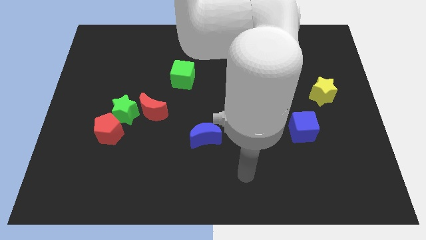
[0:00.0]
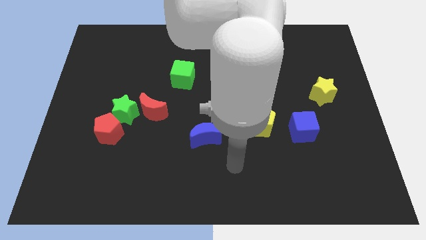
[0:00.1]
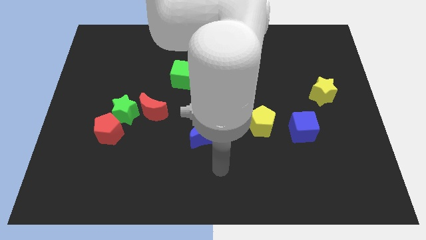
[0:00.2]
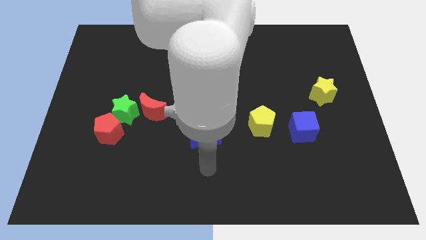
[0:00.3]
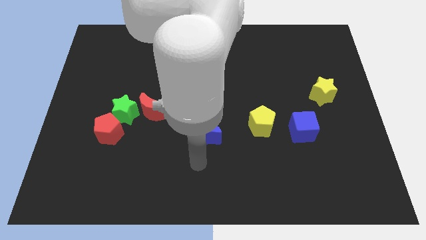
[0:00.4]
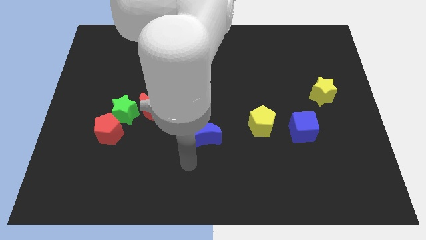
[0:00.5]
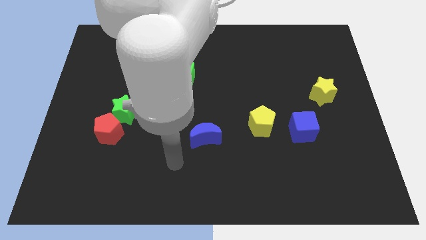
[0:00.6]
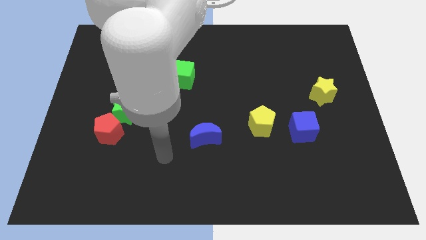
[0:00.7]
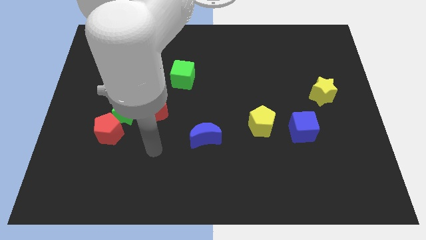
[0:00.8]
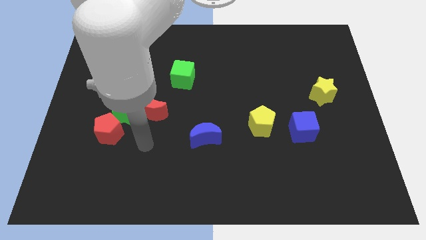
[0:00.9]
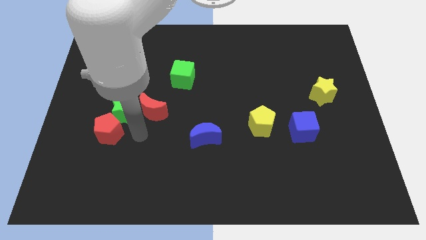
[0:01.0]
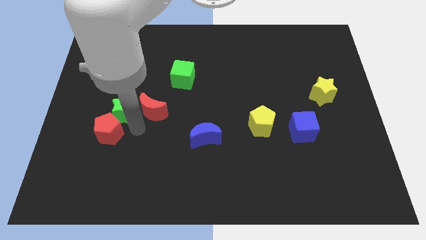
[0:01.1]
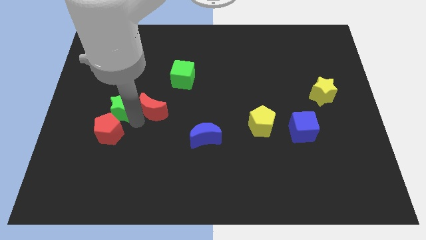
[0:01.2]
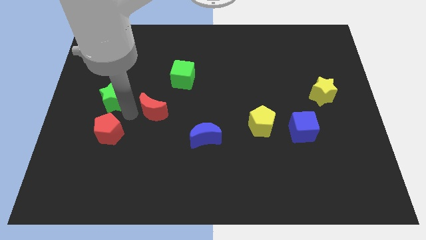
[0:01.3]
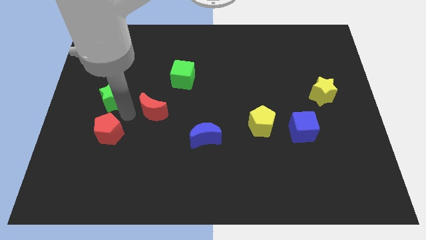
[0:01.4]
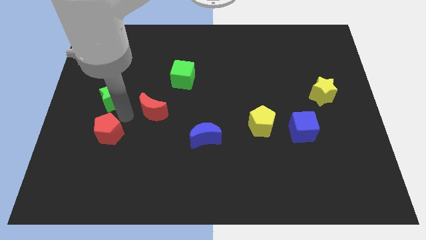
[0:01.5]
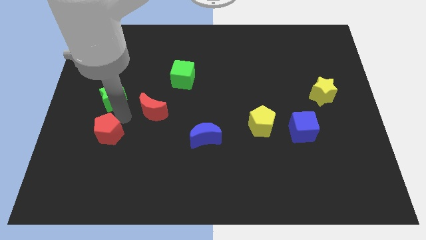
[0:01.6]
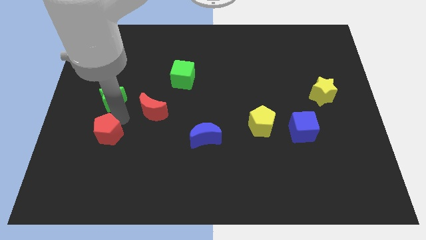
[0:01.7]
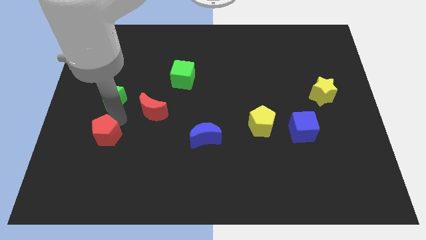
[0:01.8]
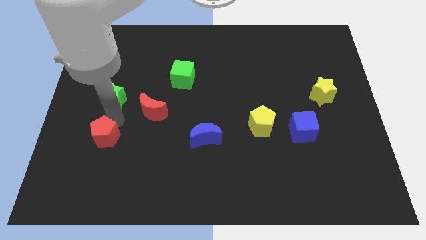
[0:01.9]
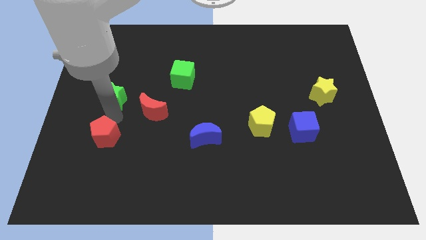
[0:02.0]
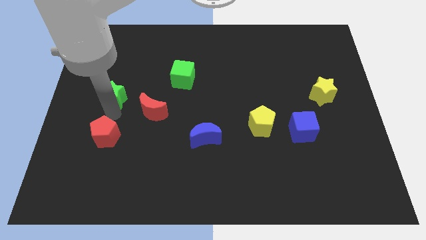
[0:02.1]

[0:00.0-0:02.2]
move the red pentagon away from the green star

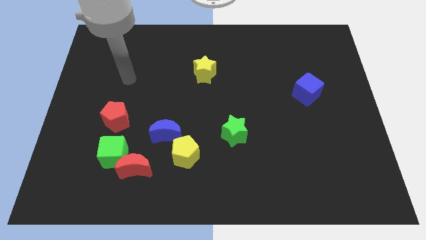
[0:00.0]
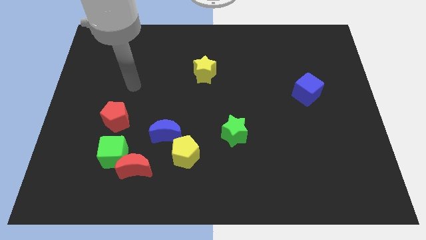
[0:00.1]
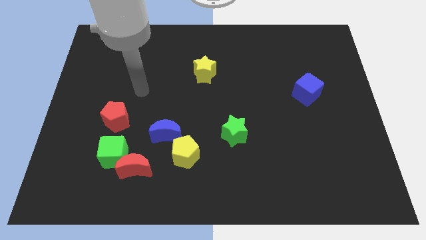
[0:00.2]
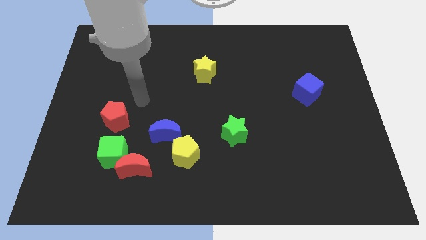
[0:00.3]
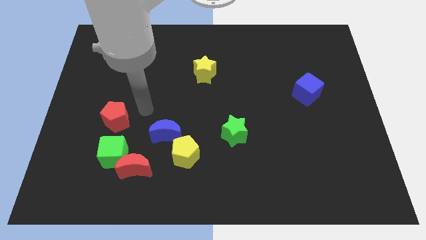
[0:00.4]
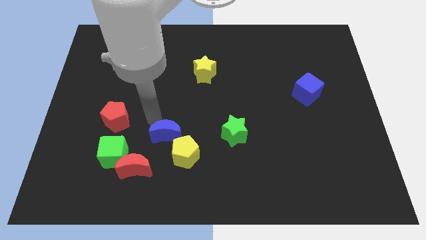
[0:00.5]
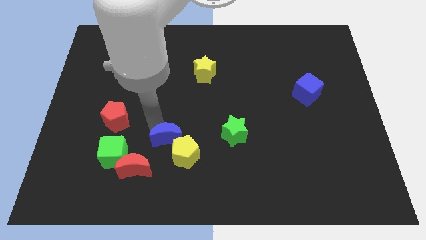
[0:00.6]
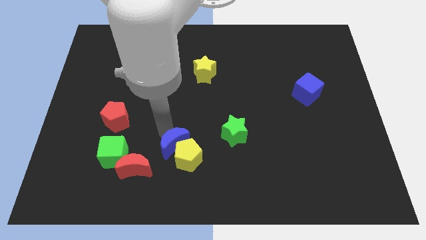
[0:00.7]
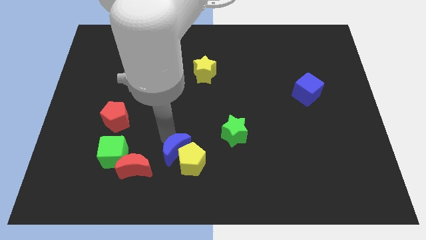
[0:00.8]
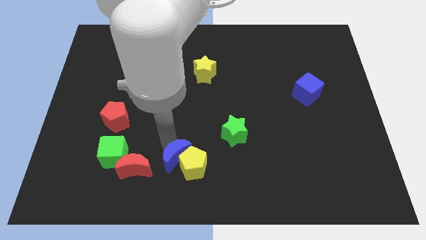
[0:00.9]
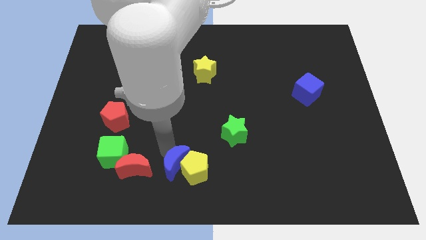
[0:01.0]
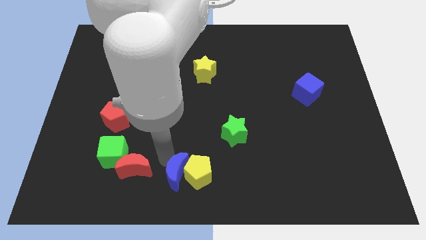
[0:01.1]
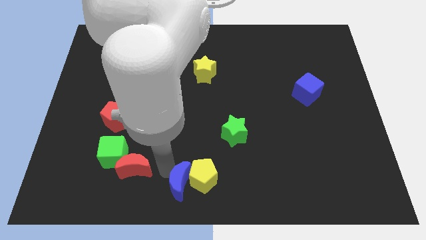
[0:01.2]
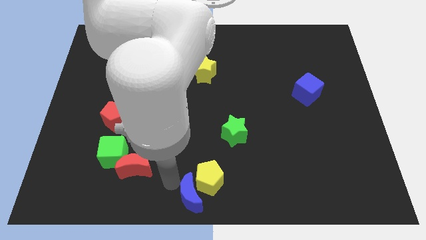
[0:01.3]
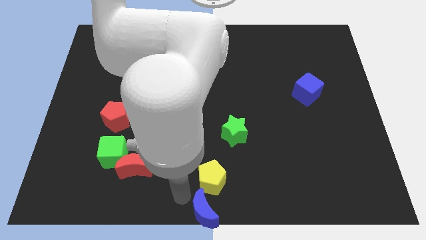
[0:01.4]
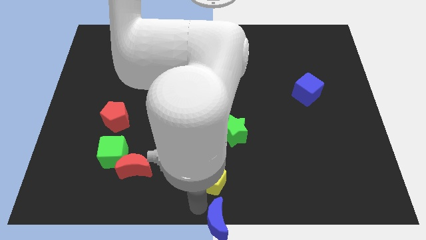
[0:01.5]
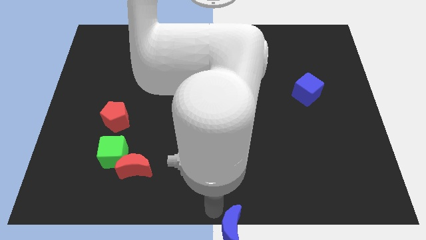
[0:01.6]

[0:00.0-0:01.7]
move the yellow pentagon away from the blue moon

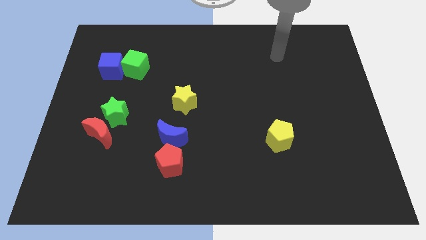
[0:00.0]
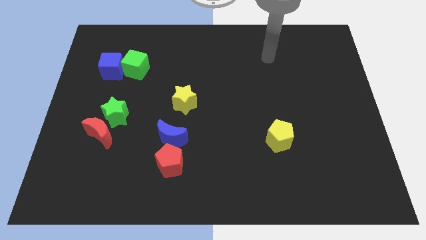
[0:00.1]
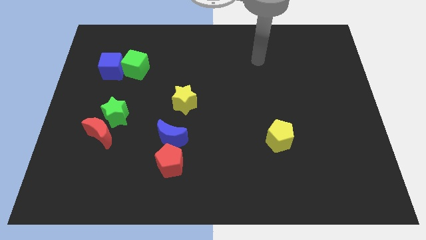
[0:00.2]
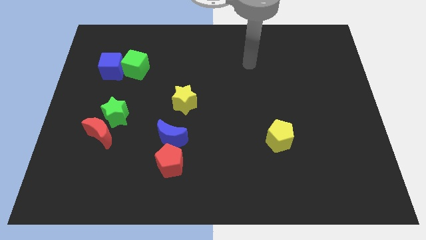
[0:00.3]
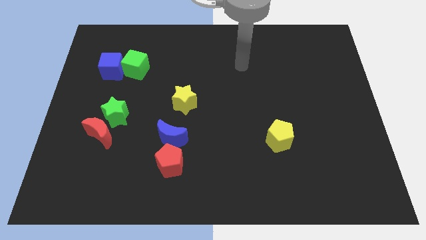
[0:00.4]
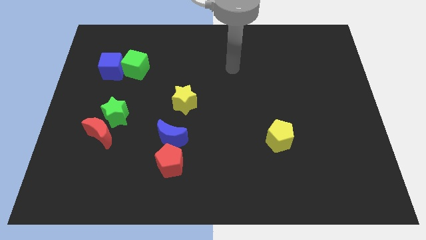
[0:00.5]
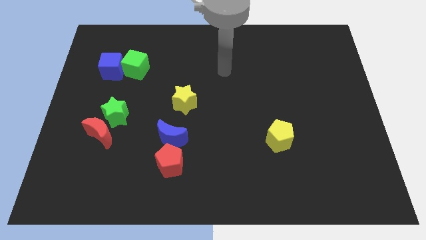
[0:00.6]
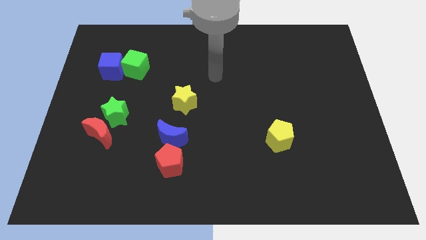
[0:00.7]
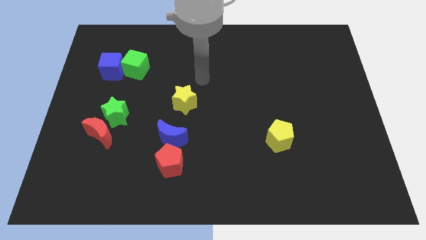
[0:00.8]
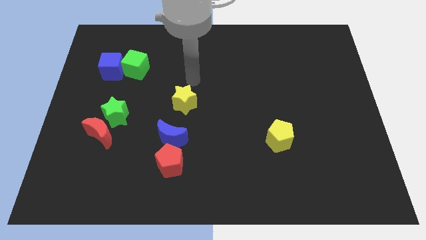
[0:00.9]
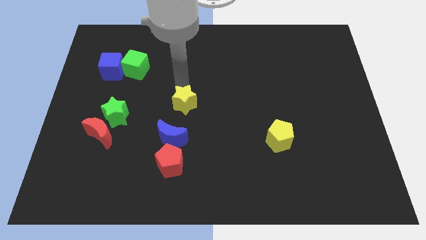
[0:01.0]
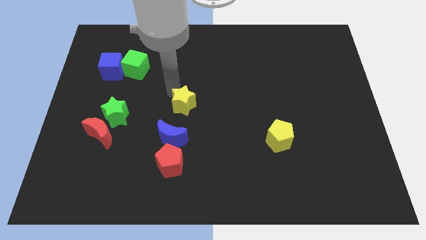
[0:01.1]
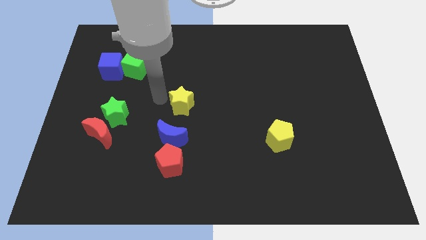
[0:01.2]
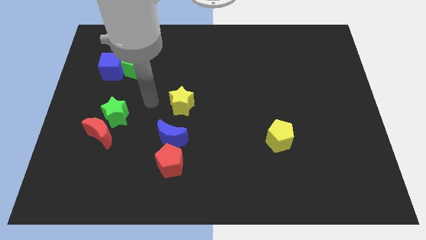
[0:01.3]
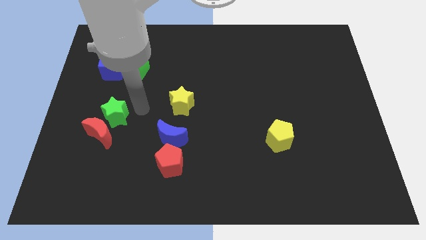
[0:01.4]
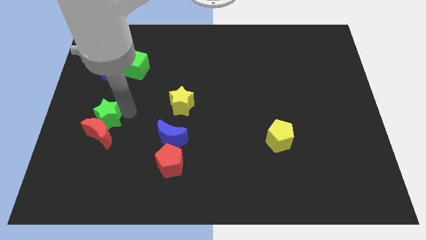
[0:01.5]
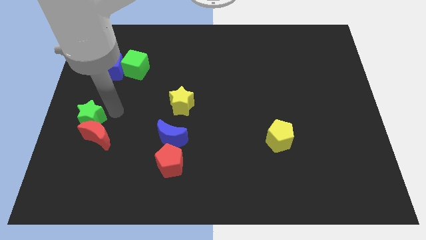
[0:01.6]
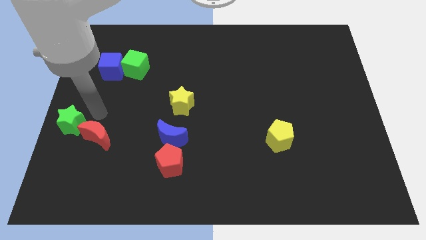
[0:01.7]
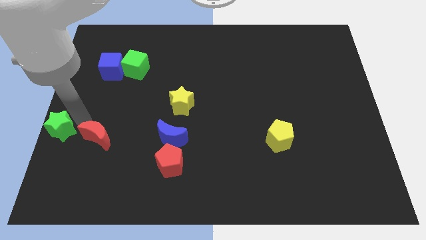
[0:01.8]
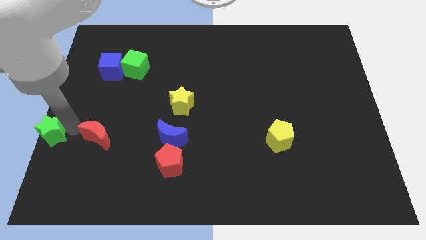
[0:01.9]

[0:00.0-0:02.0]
pull the red moon apart from the green star

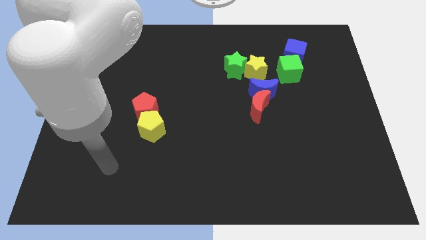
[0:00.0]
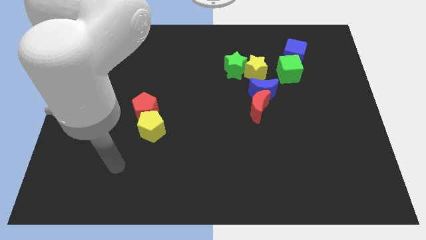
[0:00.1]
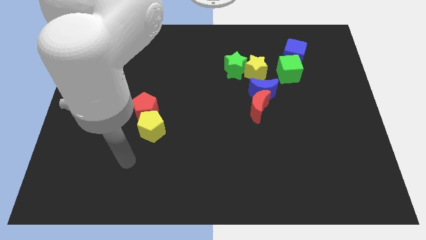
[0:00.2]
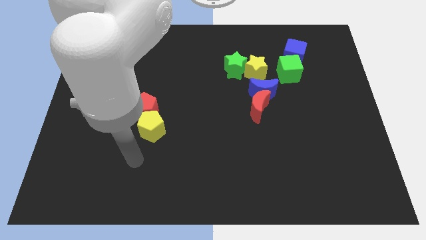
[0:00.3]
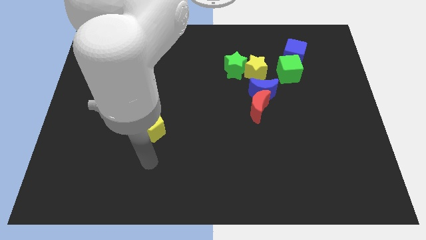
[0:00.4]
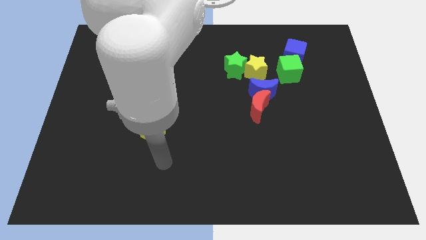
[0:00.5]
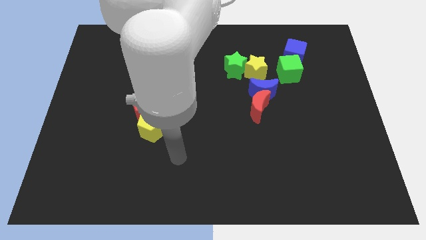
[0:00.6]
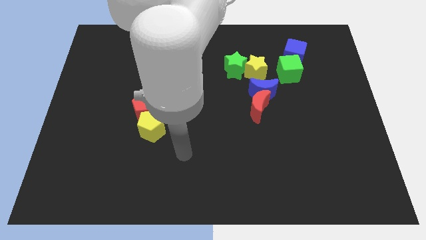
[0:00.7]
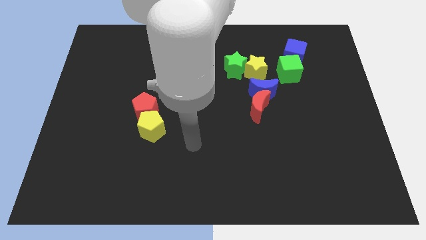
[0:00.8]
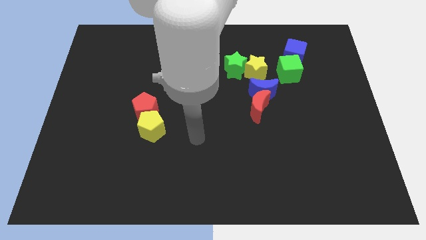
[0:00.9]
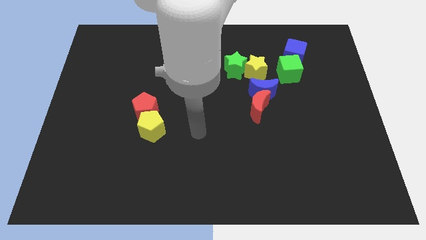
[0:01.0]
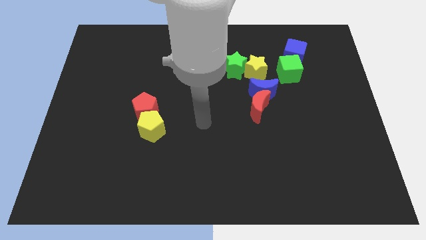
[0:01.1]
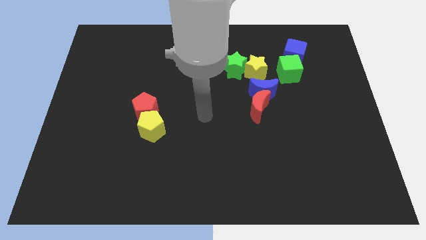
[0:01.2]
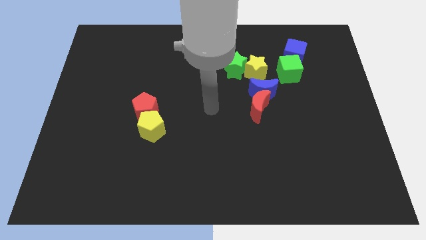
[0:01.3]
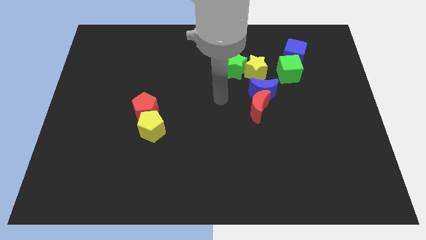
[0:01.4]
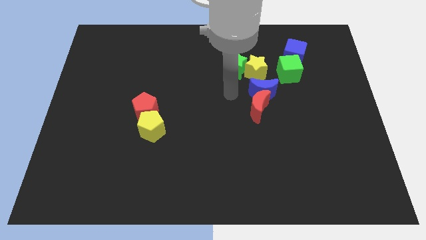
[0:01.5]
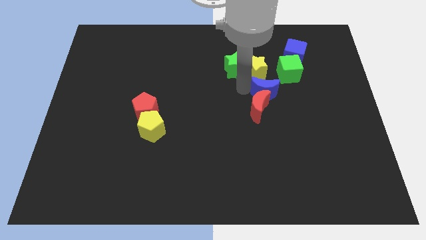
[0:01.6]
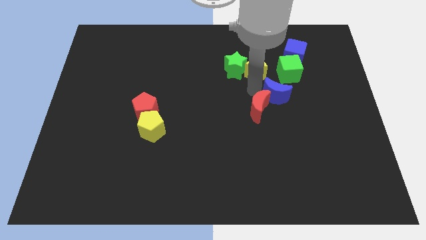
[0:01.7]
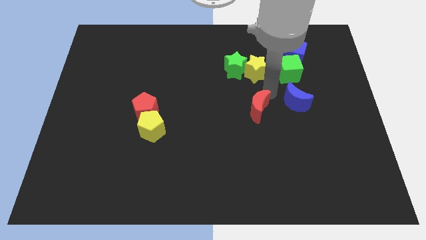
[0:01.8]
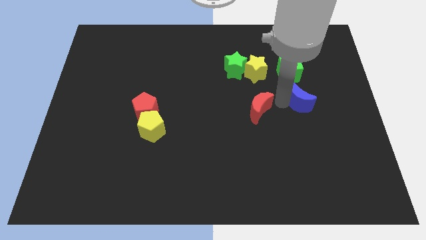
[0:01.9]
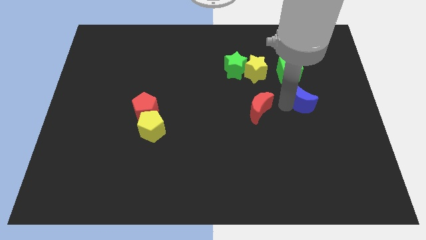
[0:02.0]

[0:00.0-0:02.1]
separate the red moon from the blue moon

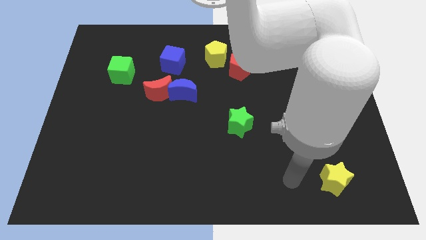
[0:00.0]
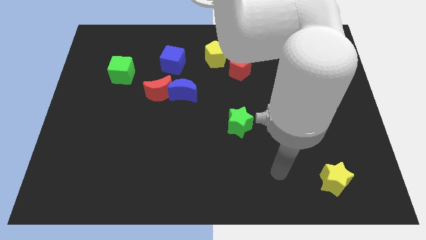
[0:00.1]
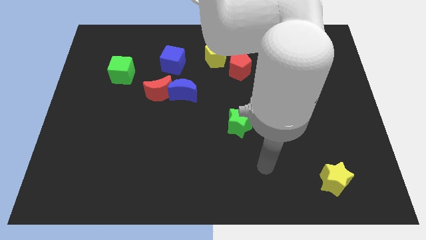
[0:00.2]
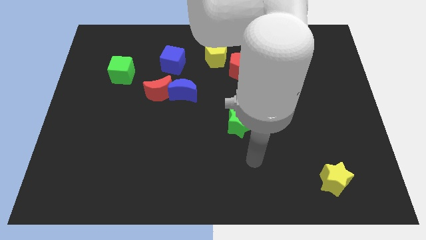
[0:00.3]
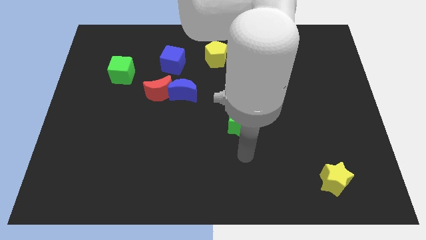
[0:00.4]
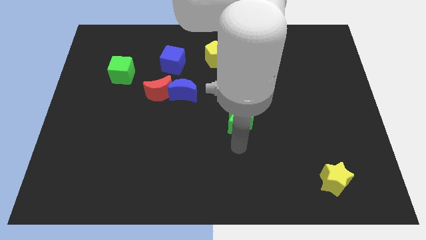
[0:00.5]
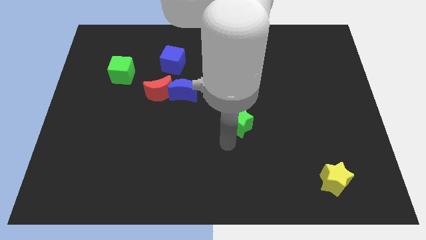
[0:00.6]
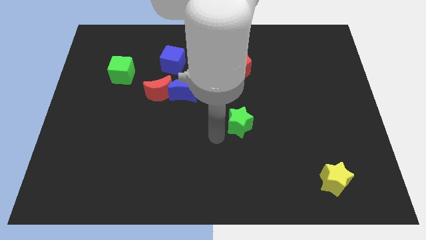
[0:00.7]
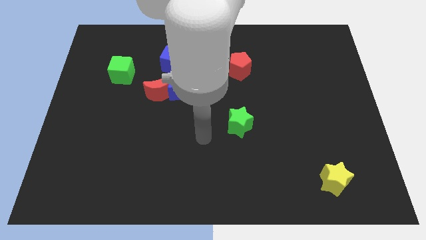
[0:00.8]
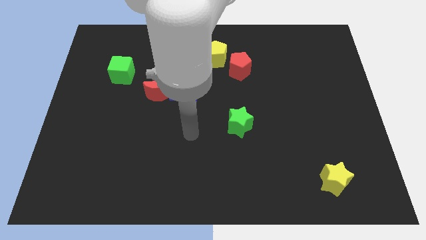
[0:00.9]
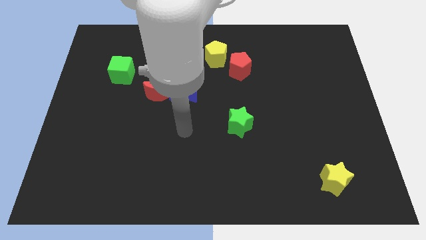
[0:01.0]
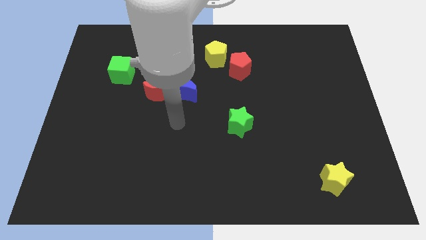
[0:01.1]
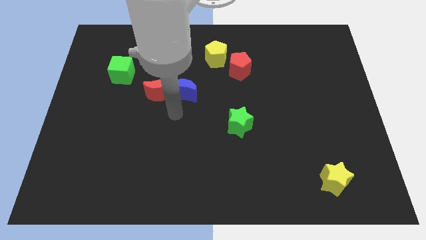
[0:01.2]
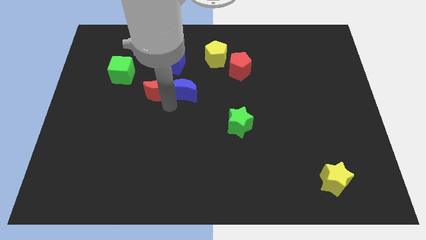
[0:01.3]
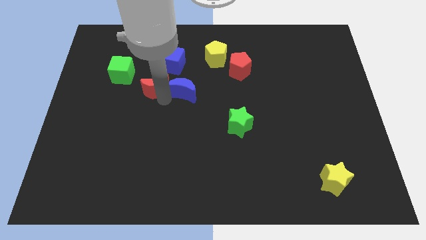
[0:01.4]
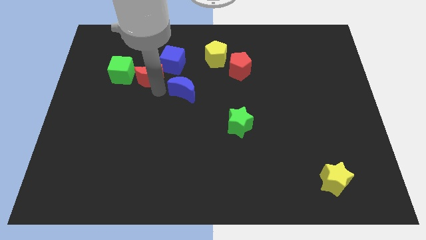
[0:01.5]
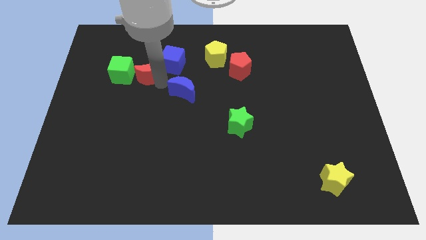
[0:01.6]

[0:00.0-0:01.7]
move the blue moon away from the red moon
